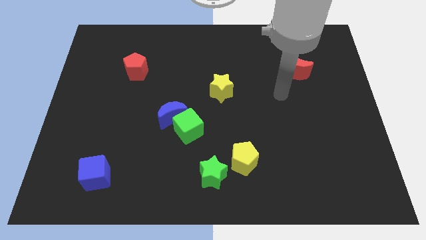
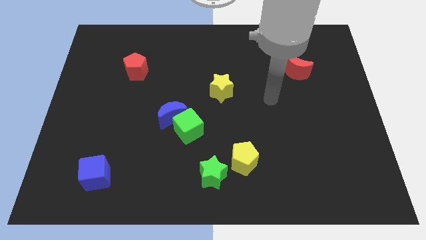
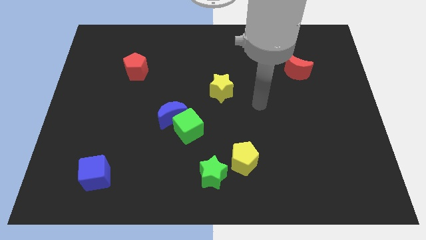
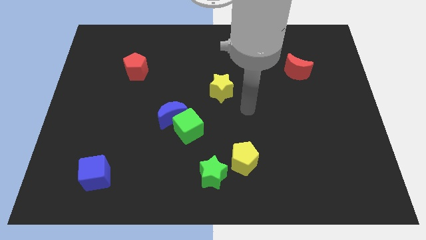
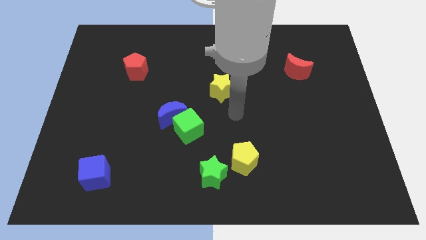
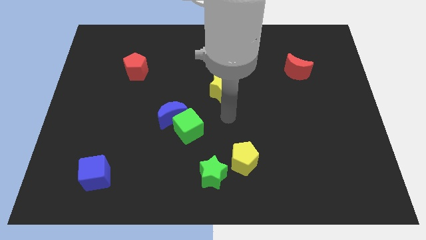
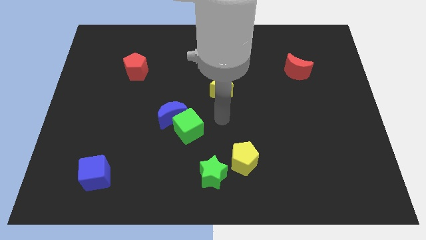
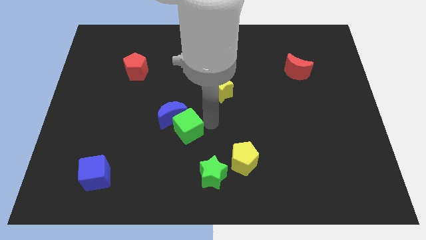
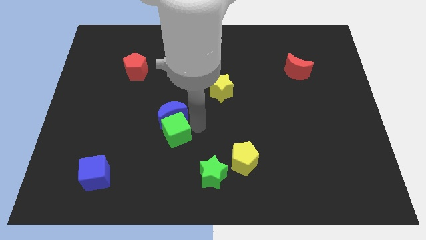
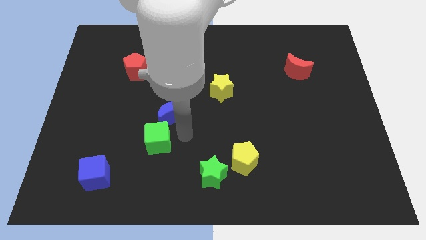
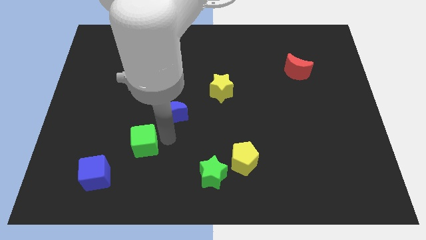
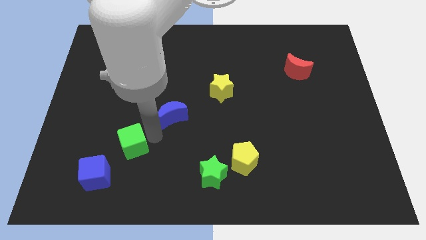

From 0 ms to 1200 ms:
pull the blue moon apart from the green cube

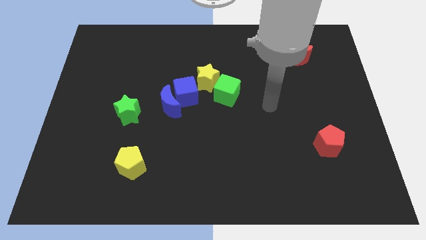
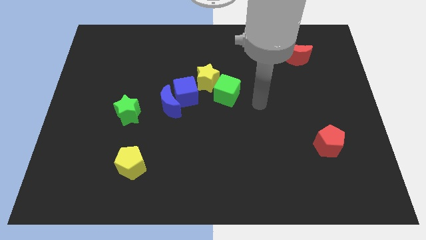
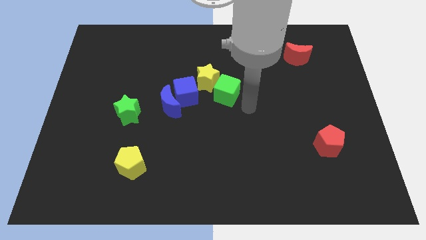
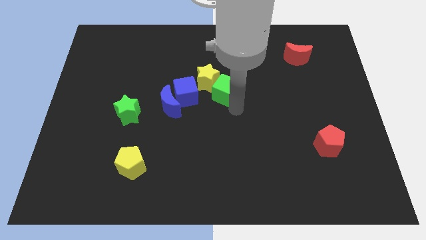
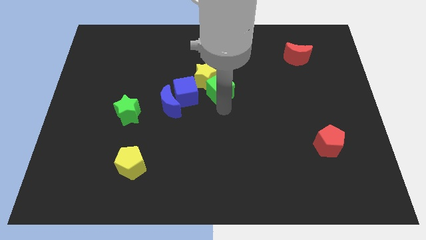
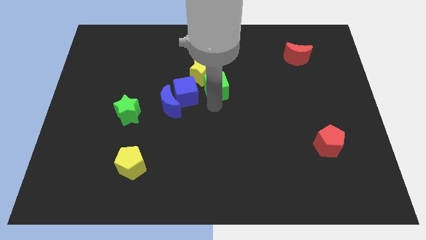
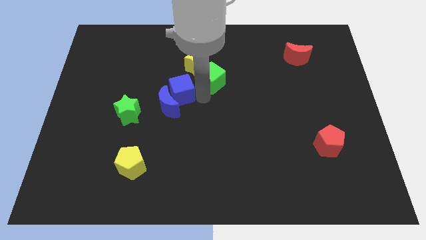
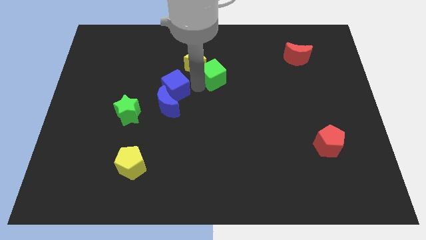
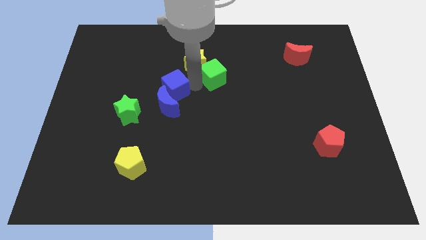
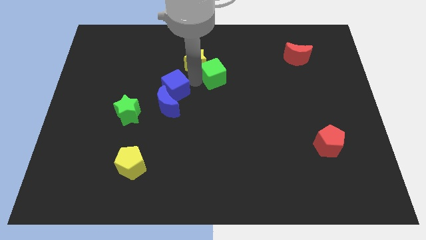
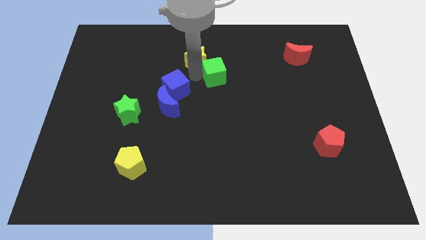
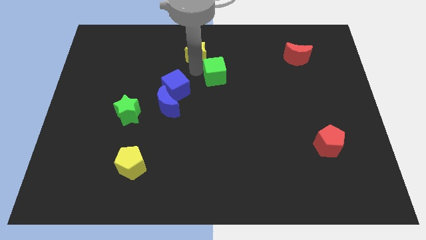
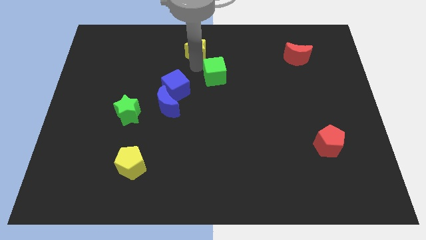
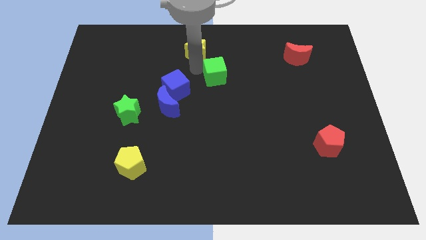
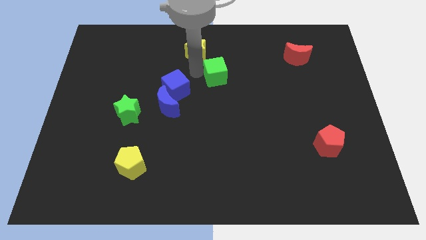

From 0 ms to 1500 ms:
move the yellow star away from the green cube and blue cube

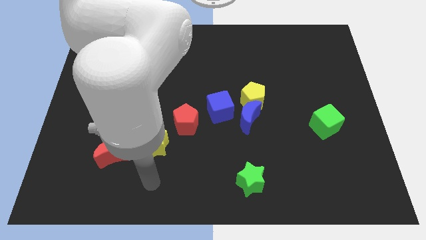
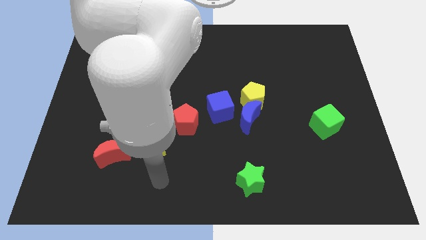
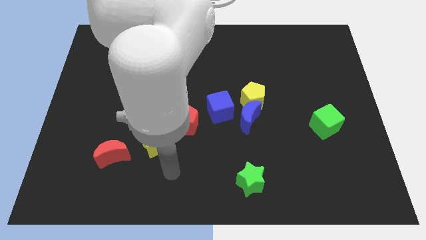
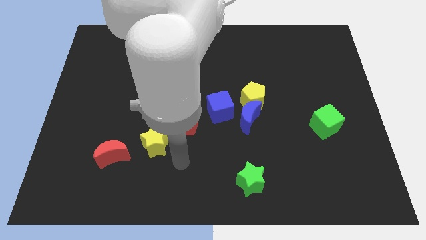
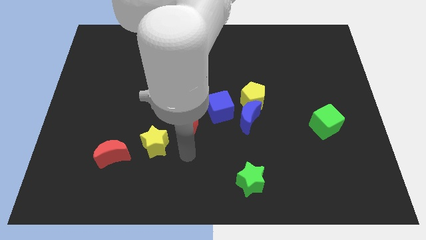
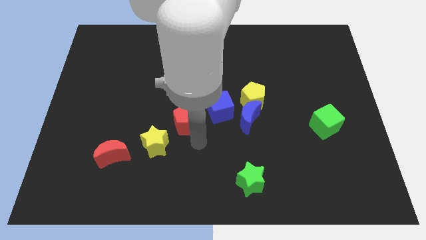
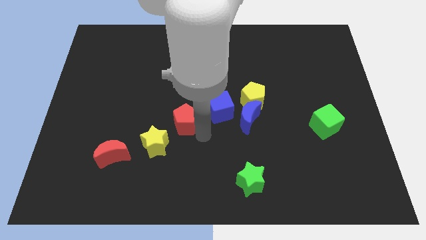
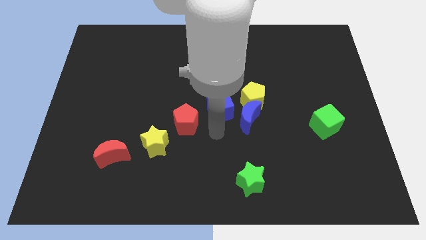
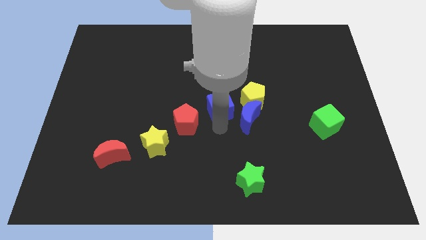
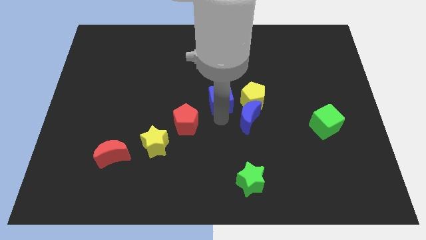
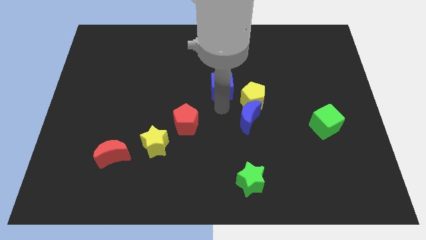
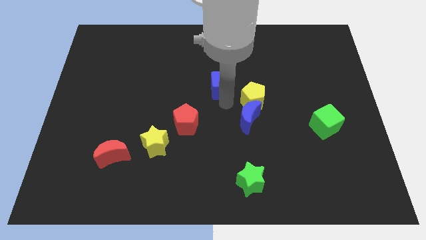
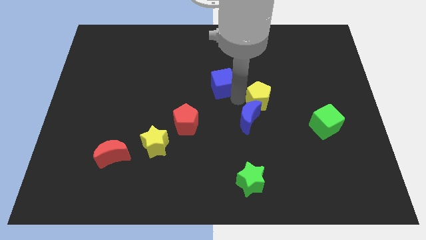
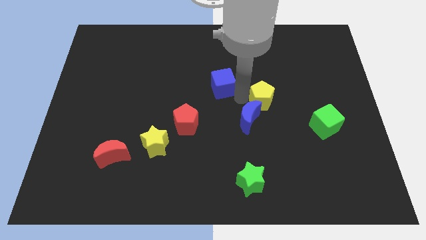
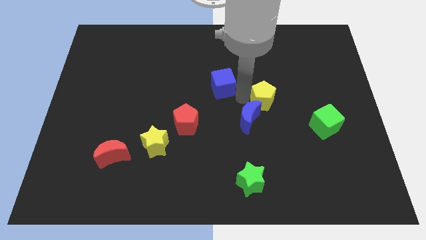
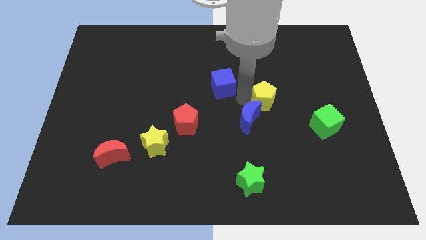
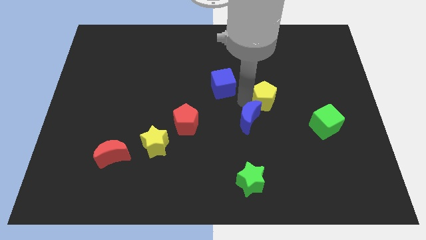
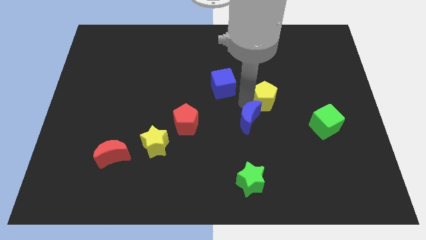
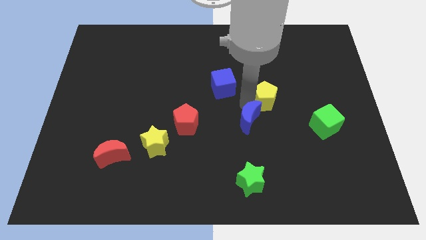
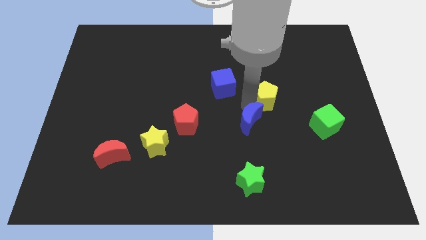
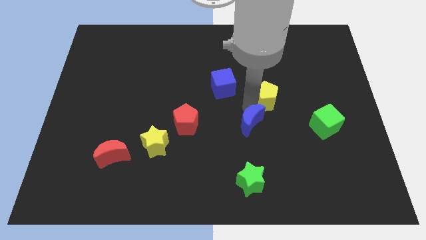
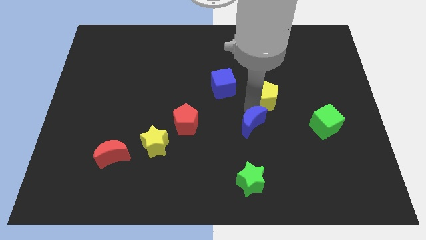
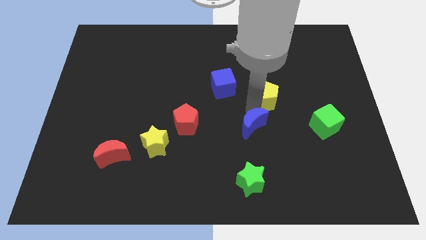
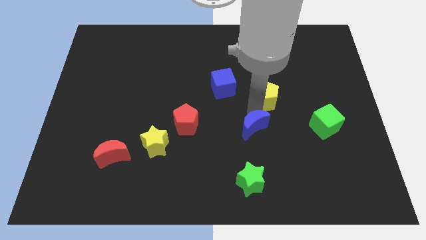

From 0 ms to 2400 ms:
move the blue moon away from the yellow pentagon and blue cube

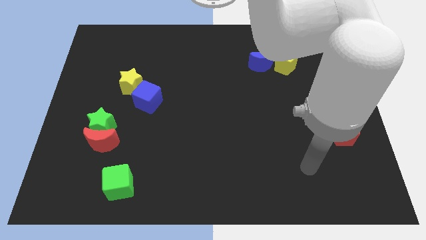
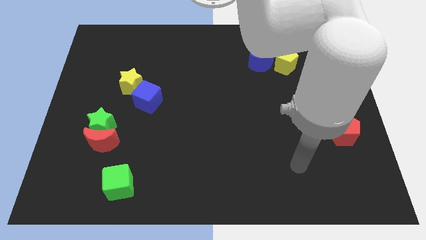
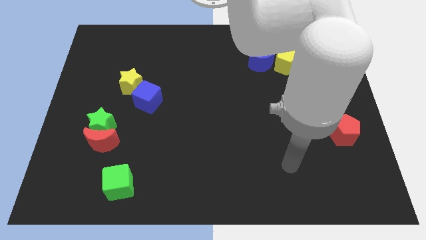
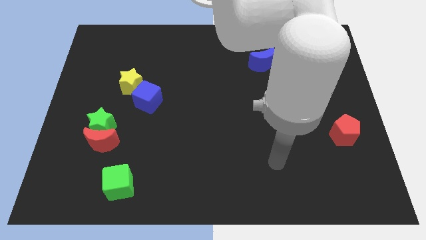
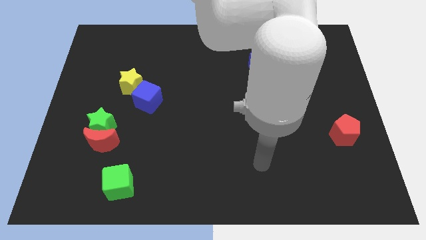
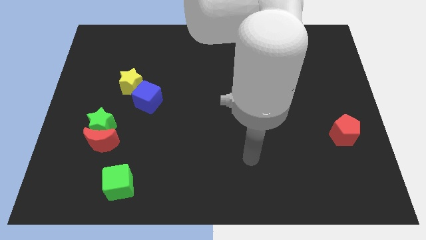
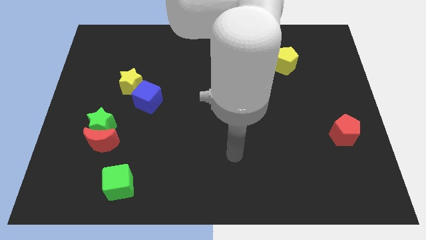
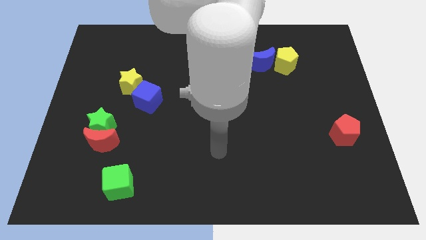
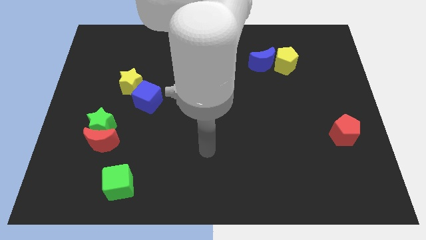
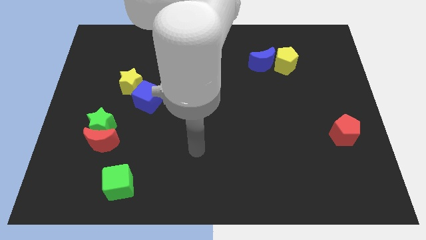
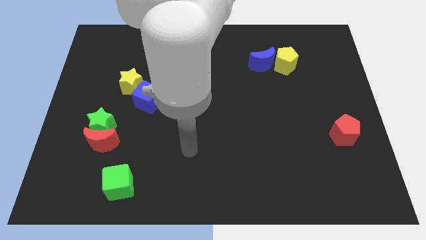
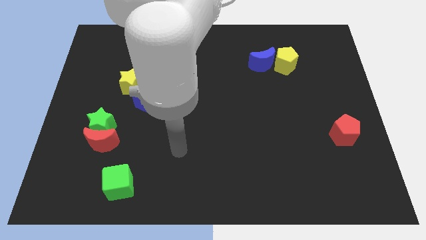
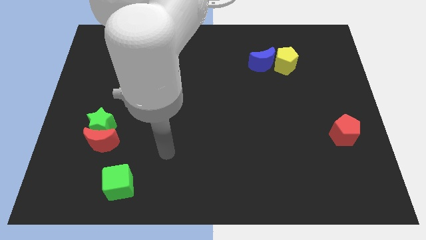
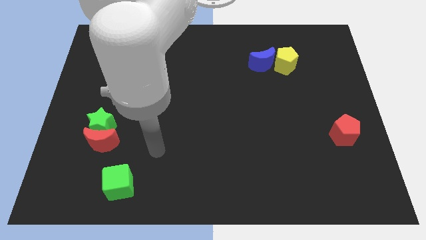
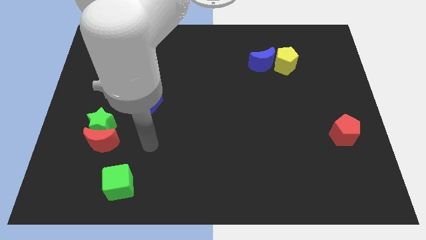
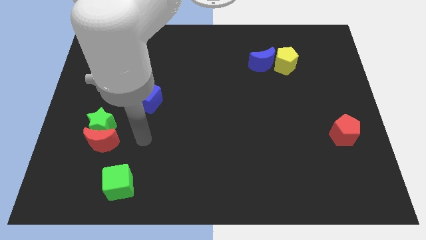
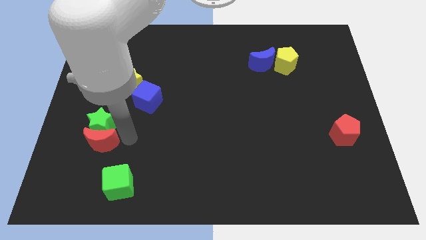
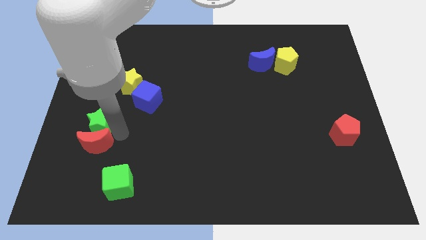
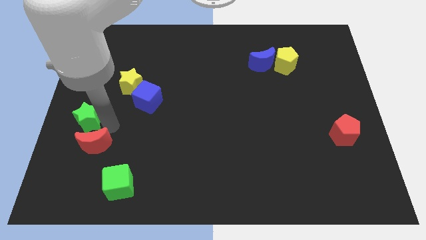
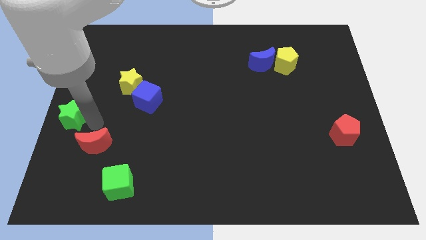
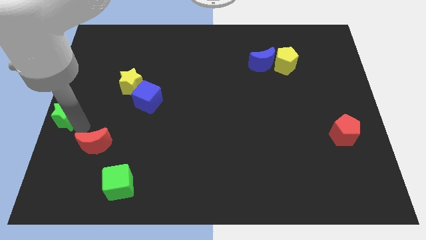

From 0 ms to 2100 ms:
separate the red moon from the green star

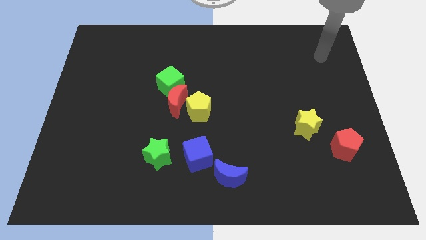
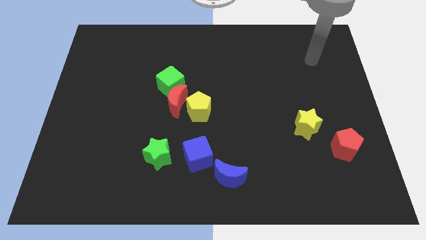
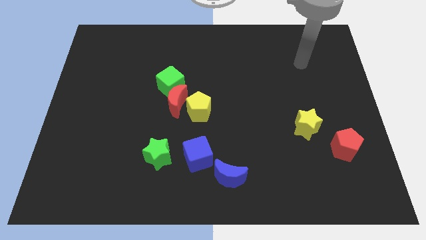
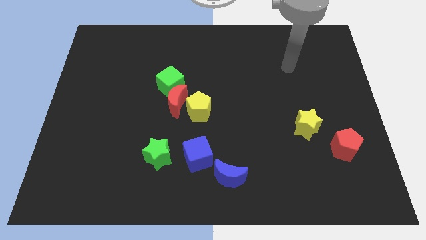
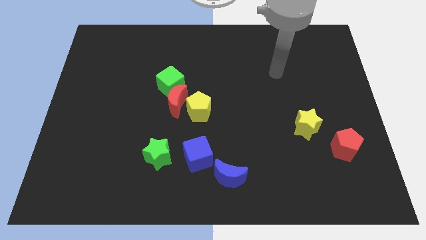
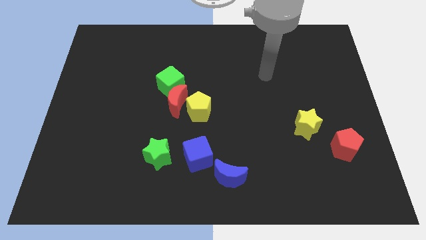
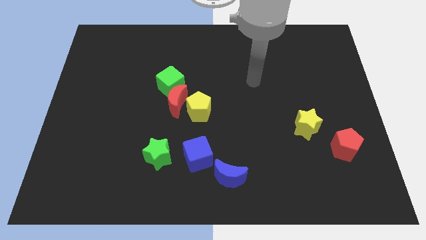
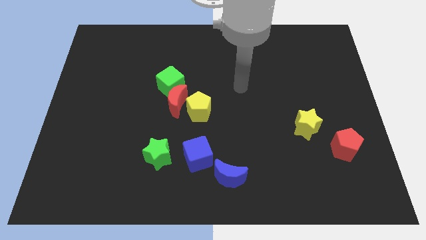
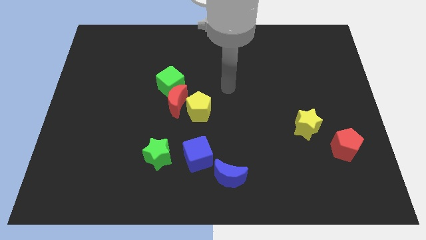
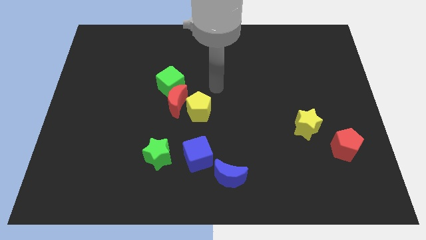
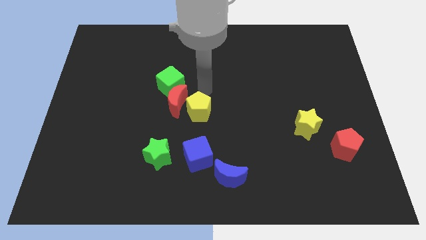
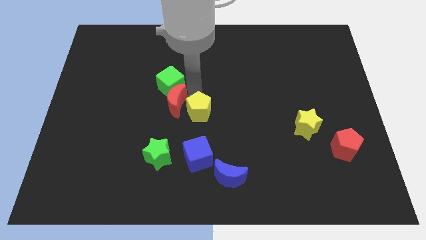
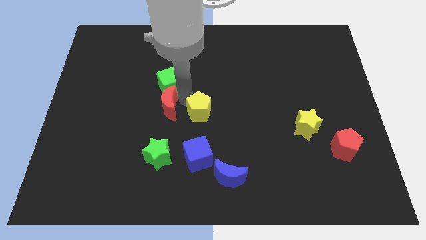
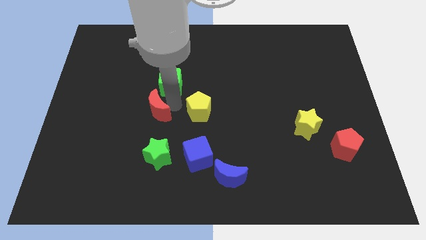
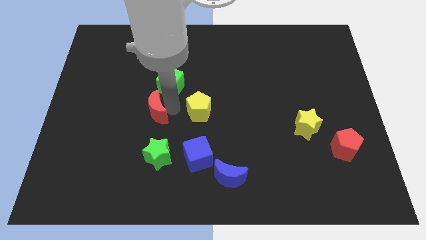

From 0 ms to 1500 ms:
move the yellow pentagon away from the red moon

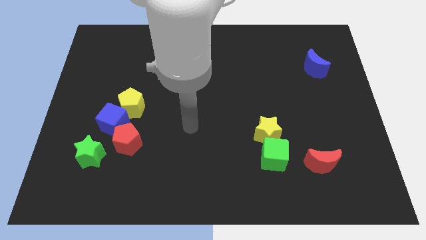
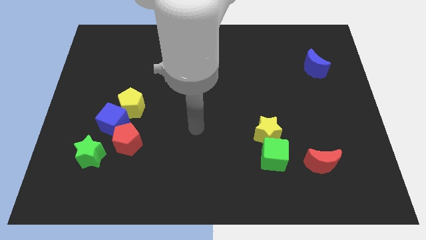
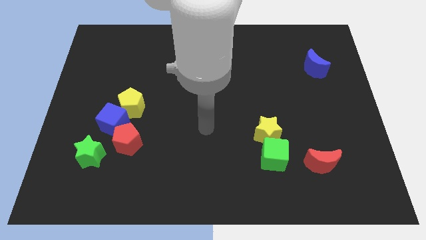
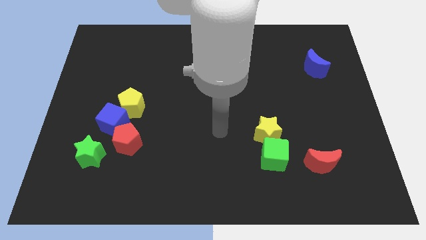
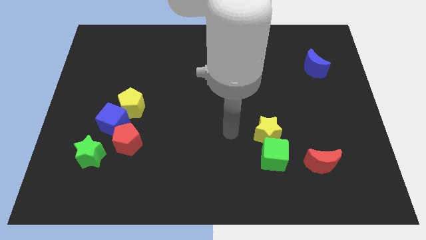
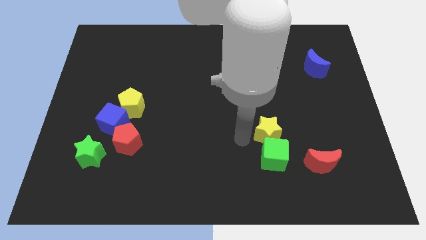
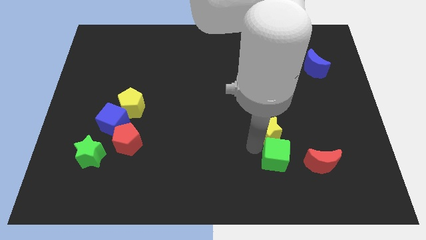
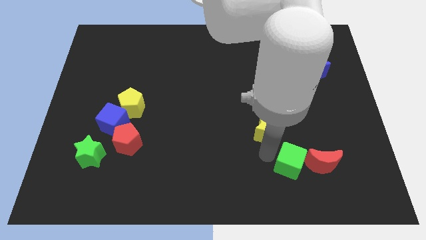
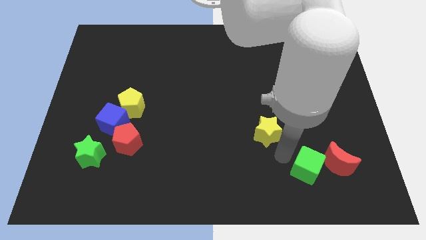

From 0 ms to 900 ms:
separate the yellow star from the green cube
